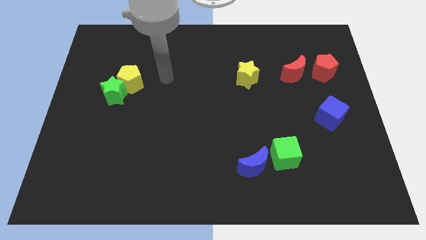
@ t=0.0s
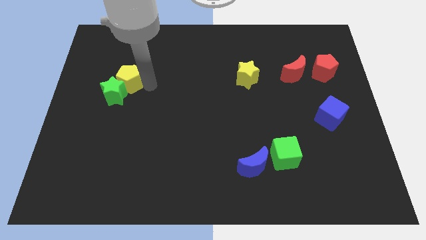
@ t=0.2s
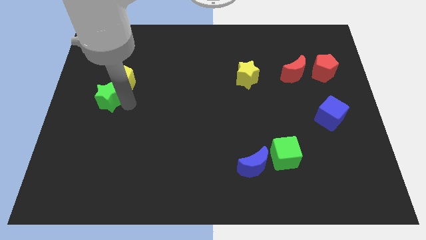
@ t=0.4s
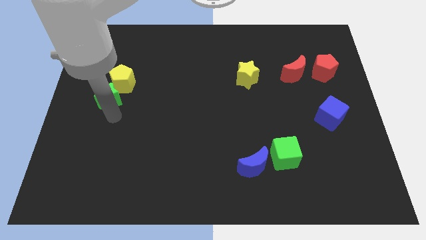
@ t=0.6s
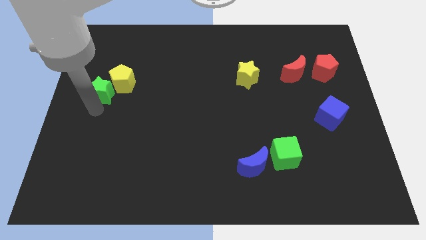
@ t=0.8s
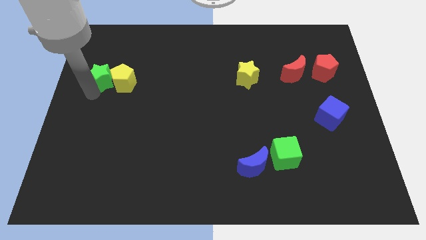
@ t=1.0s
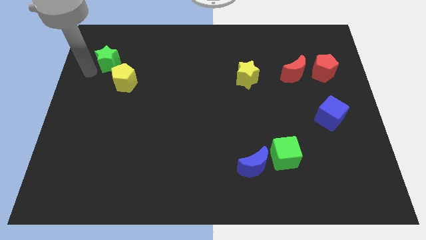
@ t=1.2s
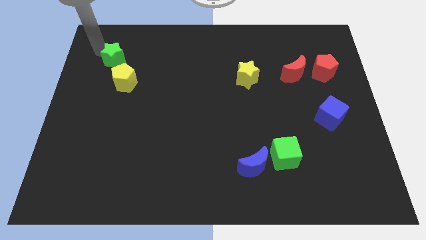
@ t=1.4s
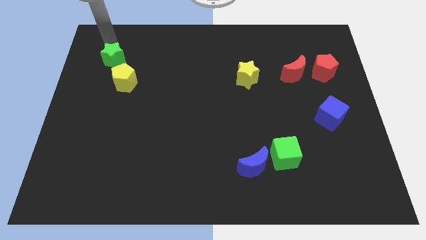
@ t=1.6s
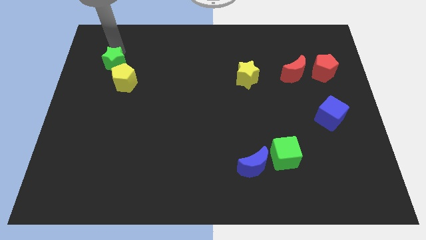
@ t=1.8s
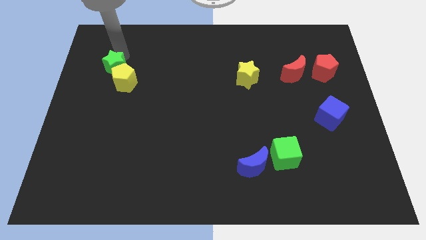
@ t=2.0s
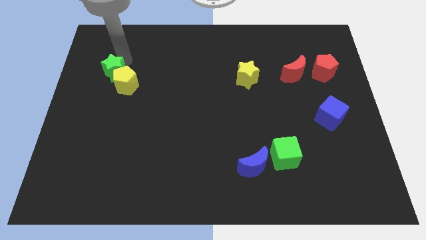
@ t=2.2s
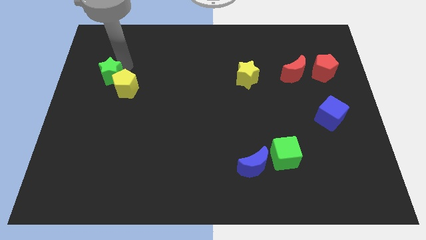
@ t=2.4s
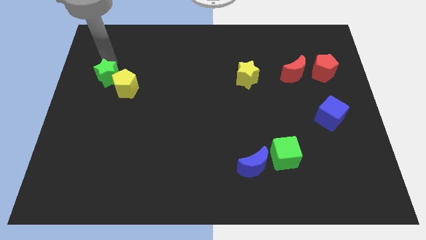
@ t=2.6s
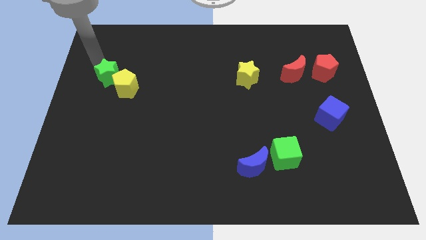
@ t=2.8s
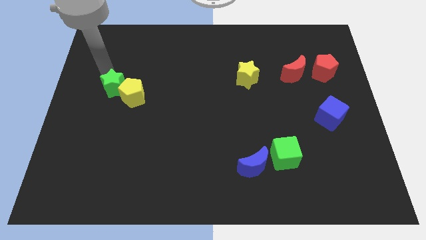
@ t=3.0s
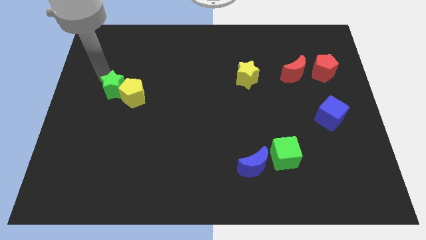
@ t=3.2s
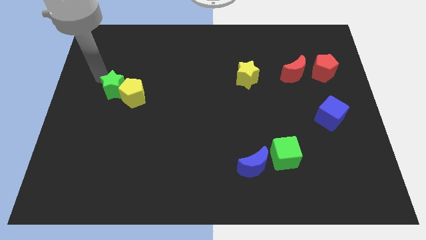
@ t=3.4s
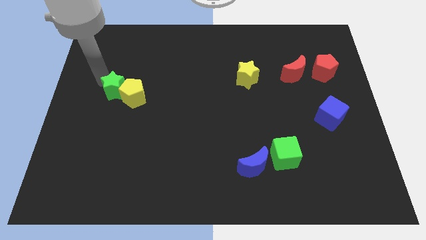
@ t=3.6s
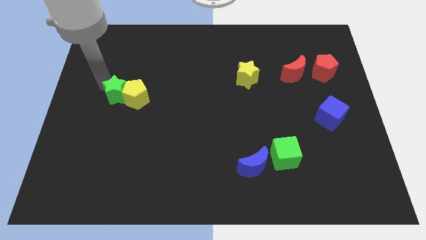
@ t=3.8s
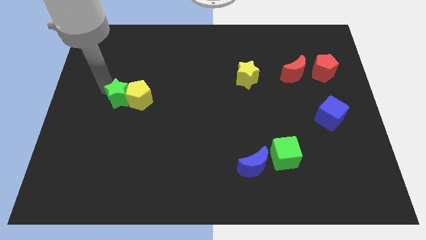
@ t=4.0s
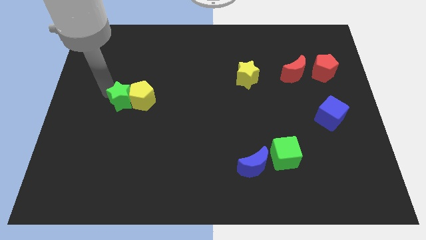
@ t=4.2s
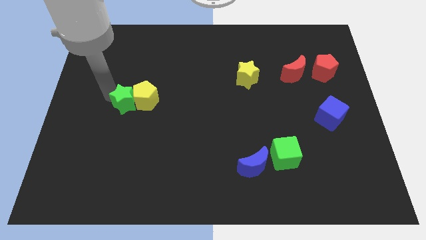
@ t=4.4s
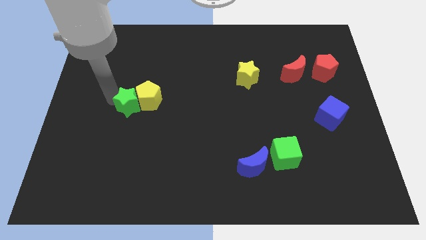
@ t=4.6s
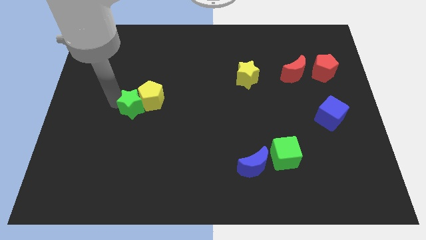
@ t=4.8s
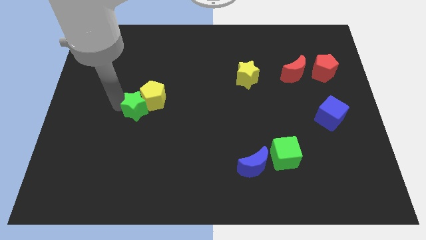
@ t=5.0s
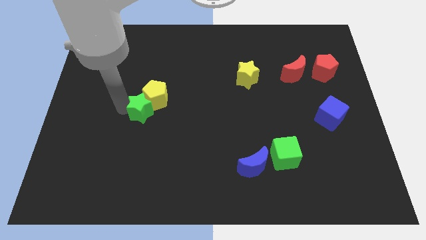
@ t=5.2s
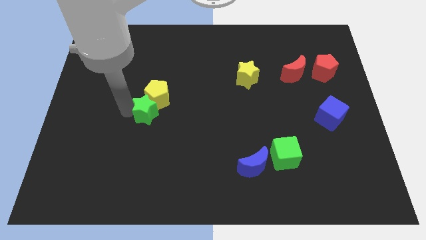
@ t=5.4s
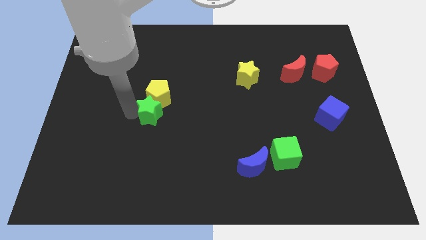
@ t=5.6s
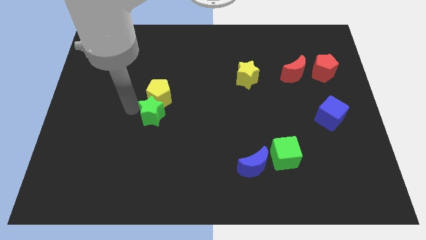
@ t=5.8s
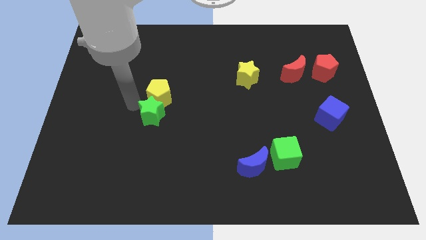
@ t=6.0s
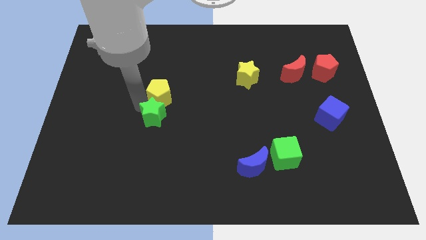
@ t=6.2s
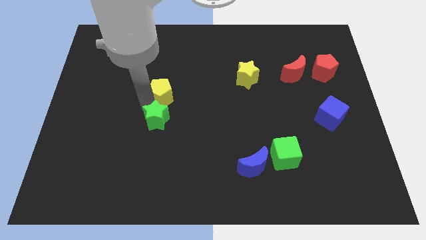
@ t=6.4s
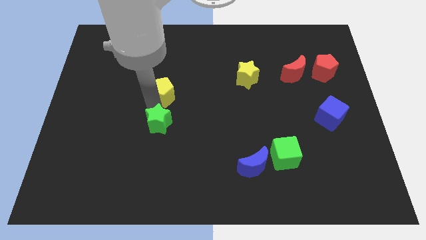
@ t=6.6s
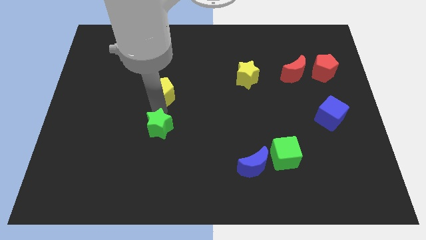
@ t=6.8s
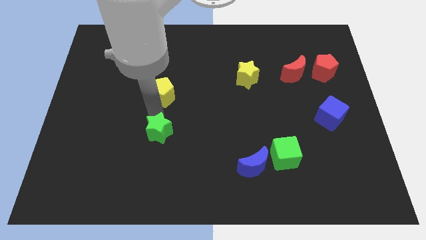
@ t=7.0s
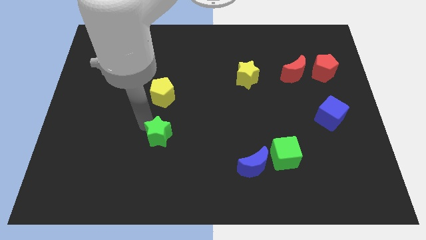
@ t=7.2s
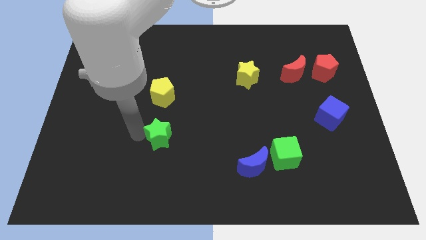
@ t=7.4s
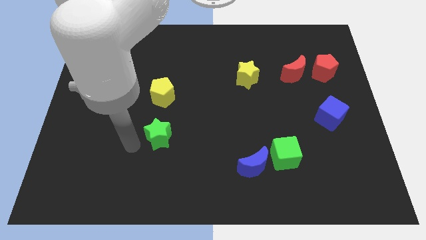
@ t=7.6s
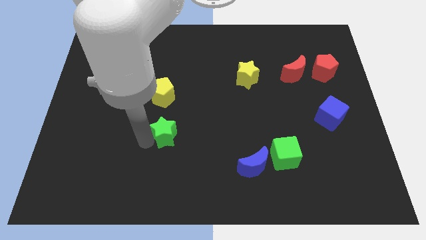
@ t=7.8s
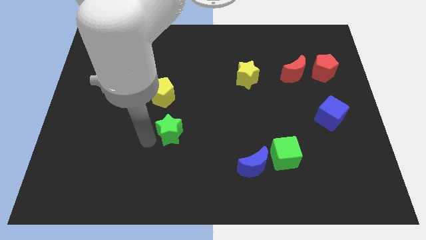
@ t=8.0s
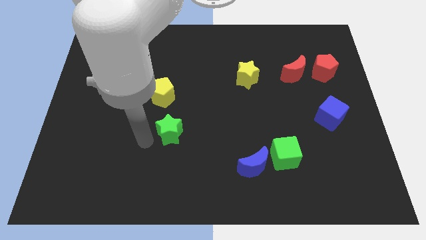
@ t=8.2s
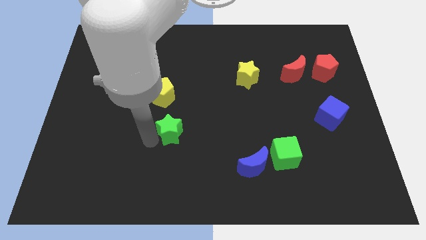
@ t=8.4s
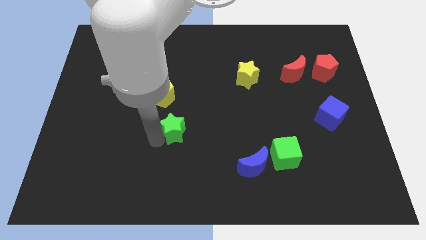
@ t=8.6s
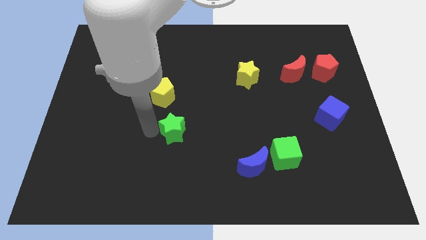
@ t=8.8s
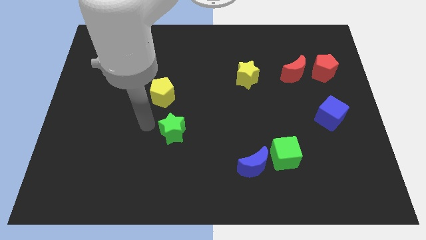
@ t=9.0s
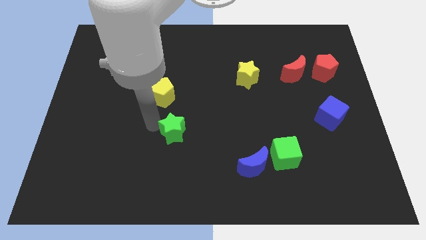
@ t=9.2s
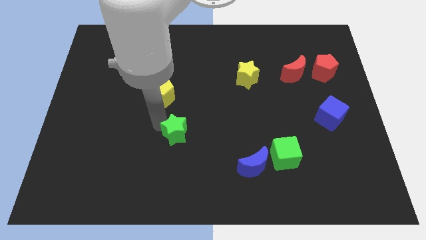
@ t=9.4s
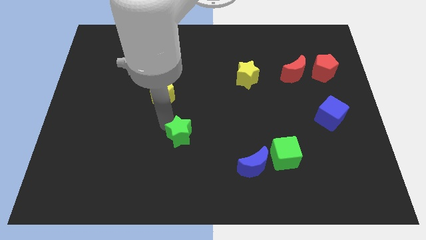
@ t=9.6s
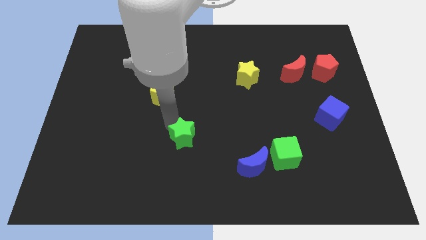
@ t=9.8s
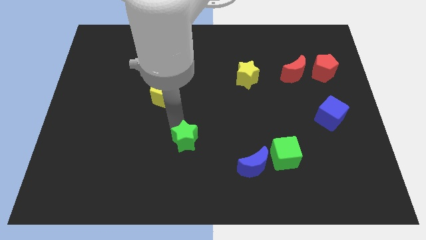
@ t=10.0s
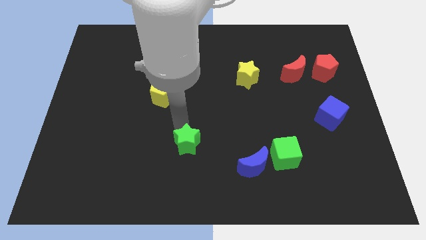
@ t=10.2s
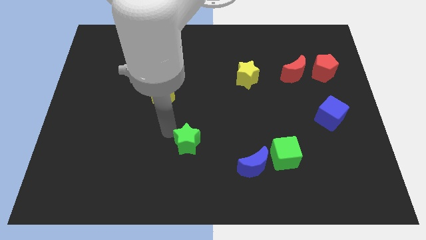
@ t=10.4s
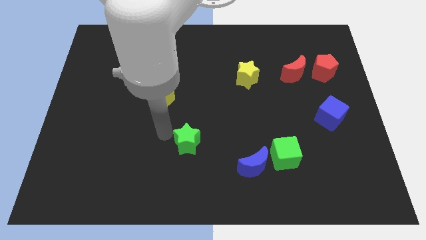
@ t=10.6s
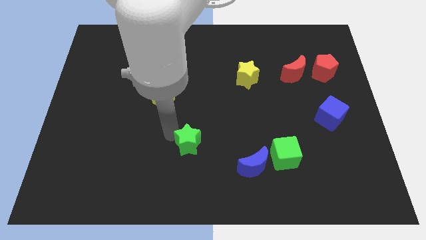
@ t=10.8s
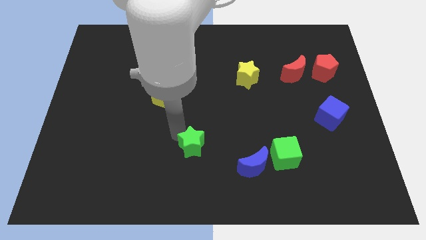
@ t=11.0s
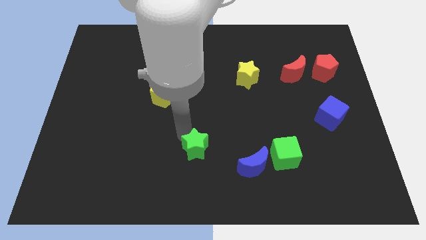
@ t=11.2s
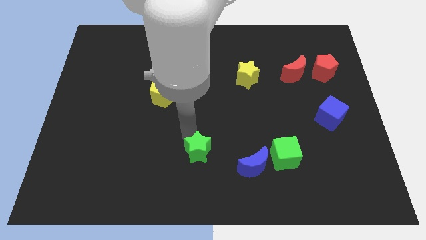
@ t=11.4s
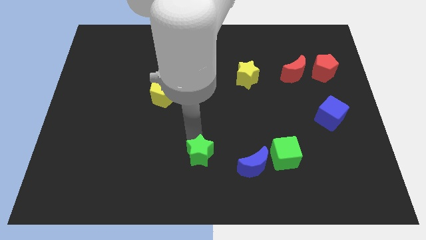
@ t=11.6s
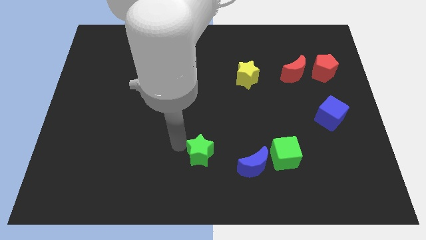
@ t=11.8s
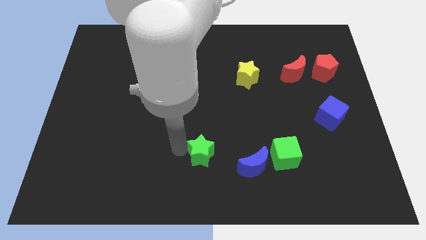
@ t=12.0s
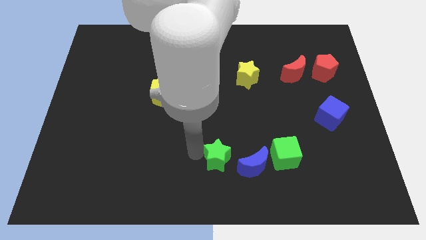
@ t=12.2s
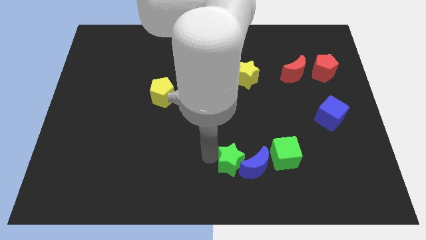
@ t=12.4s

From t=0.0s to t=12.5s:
put the green star close to the blue moon

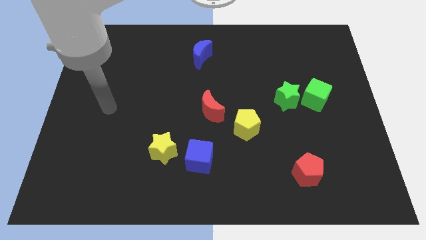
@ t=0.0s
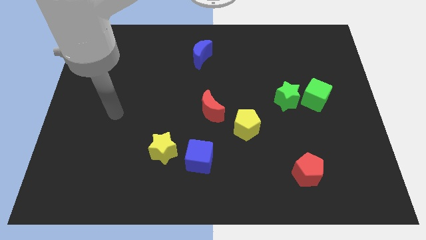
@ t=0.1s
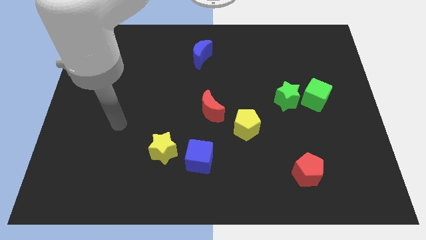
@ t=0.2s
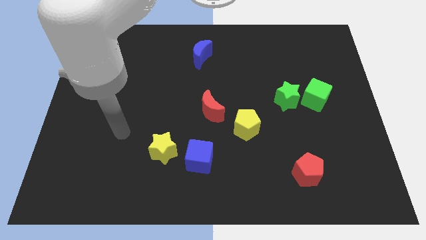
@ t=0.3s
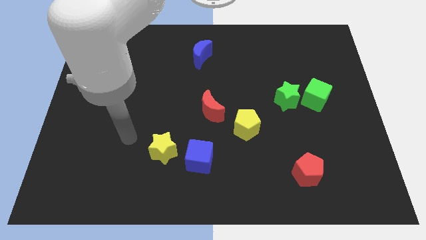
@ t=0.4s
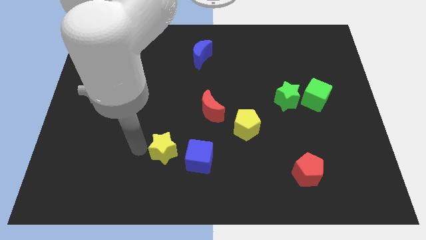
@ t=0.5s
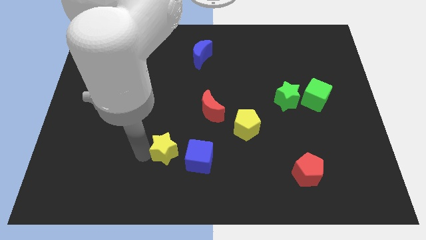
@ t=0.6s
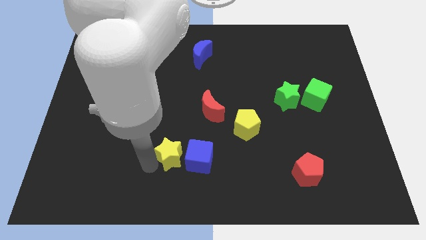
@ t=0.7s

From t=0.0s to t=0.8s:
put the blue cube towards the yellow star
